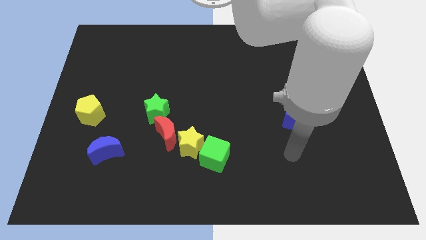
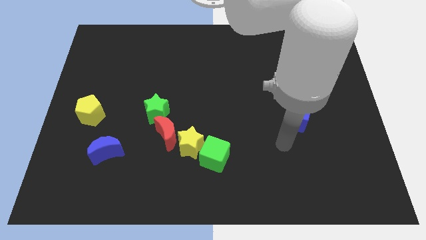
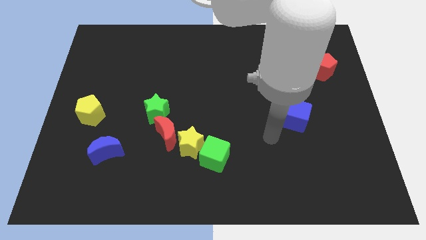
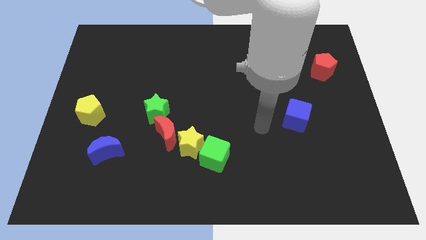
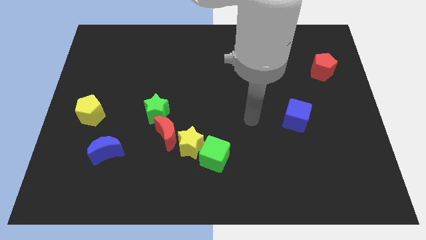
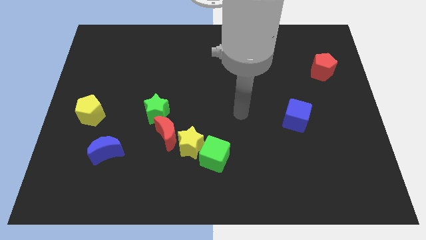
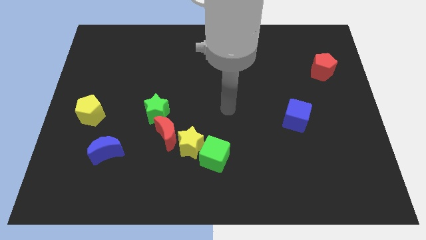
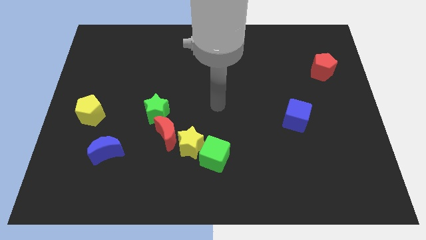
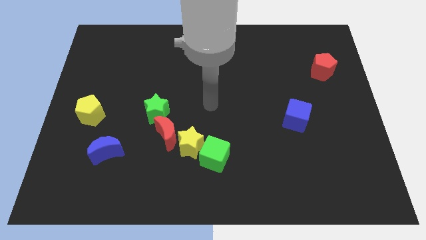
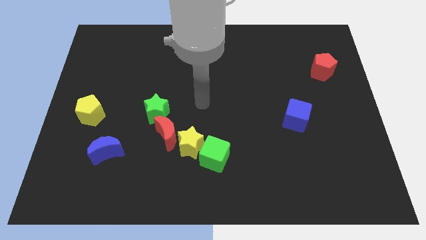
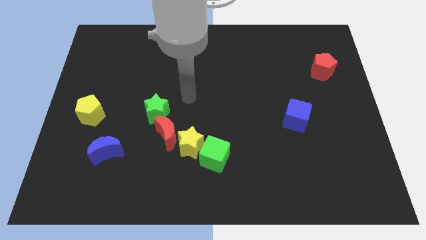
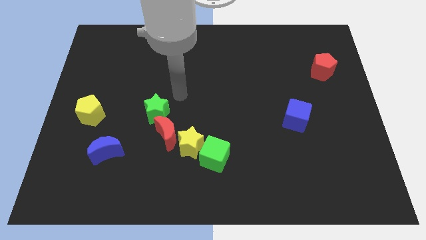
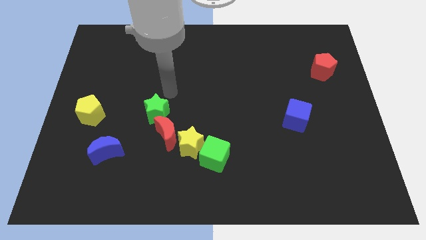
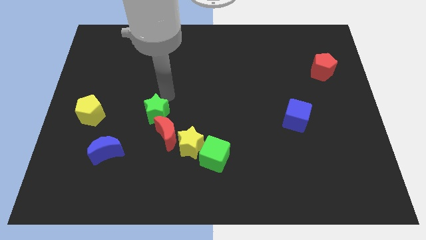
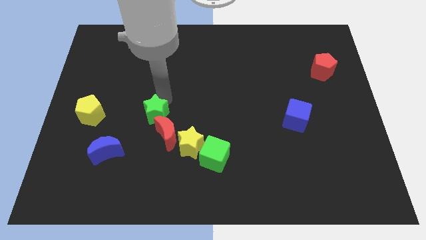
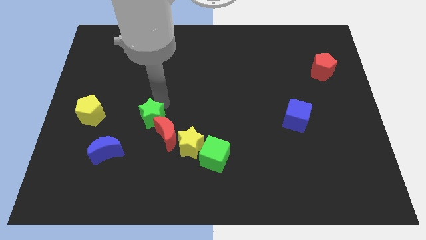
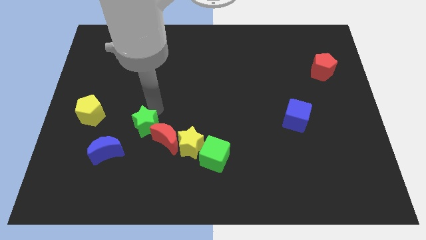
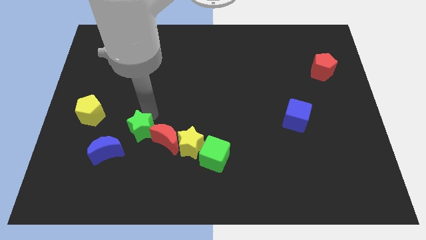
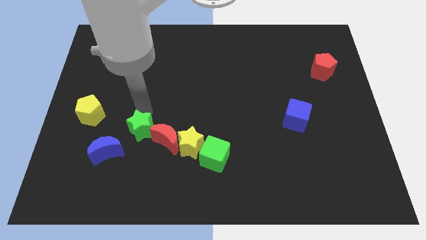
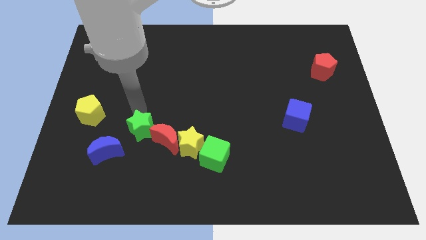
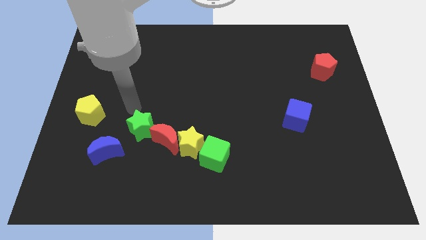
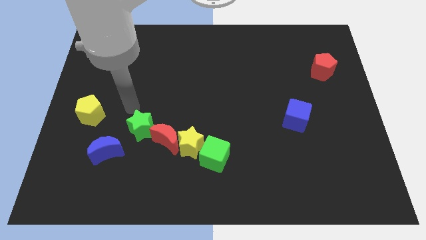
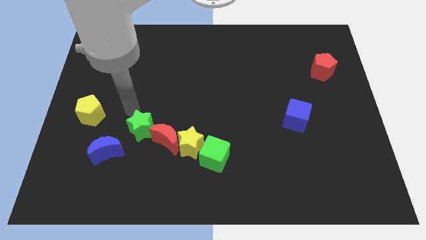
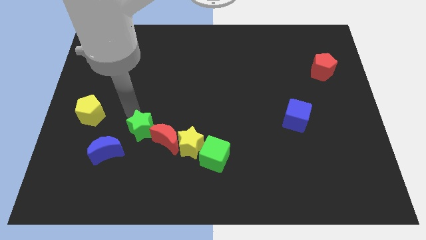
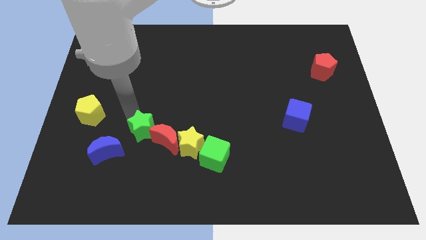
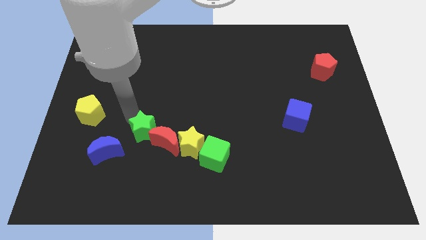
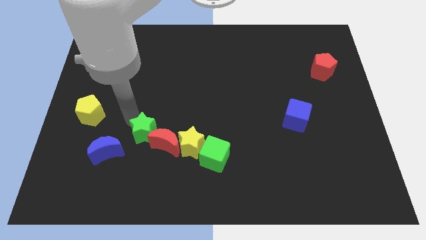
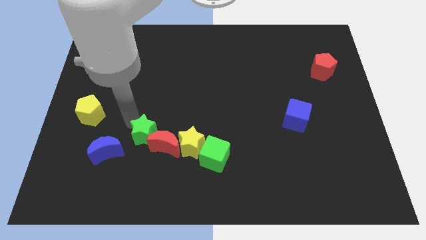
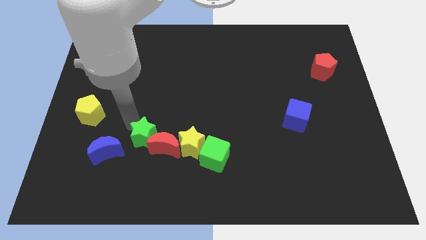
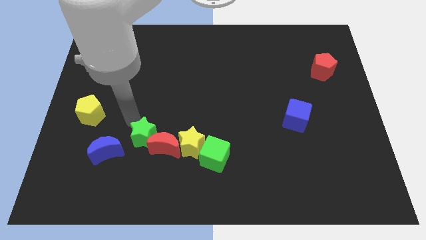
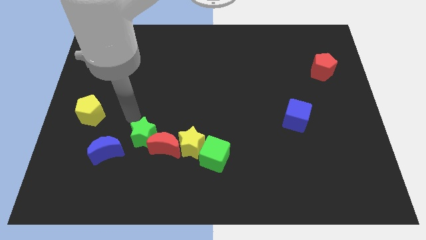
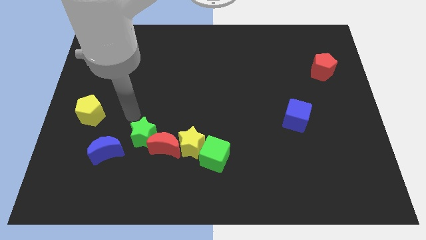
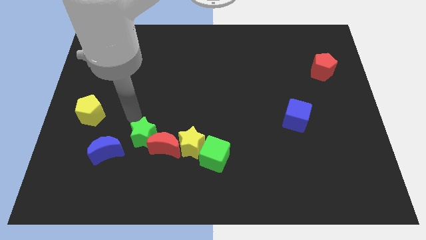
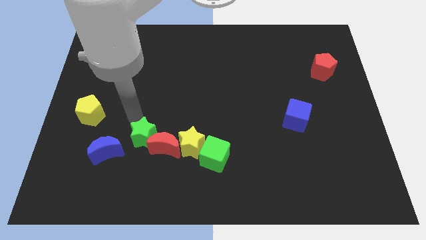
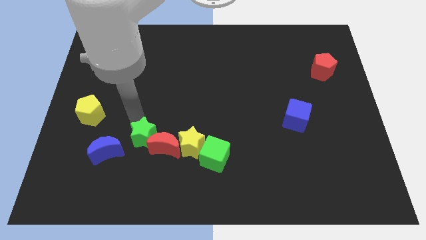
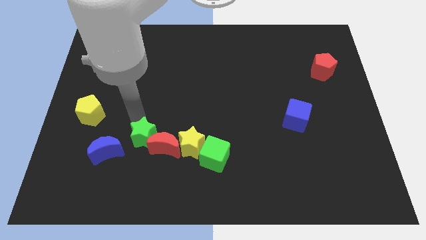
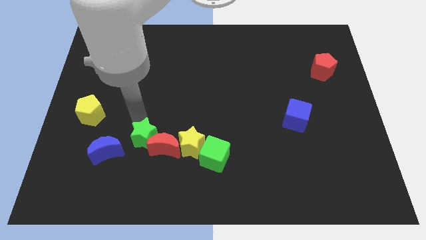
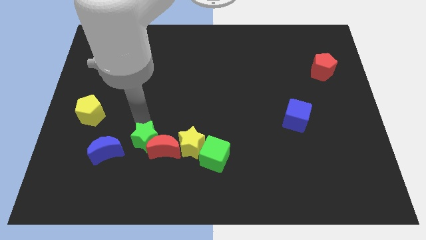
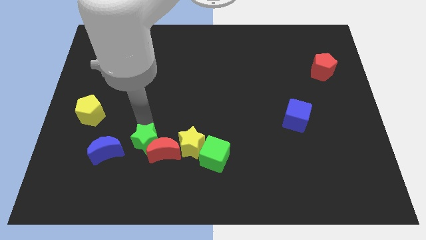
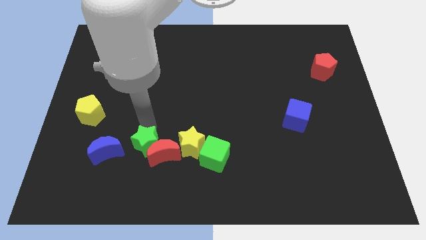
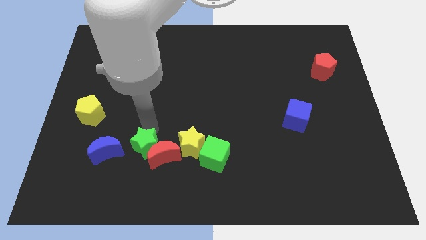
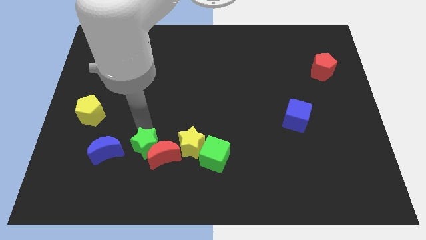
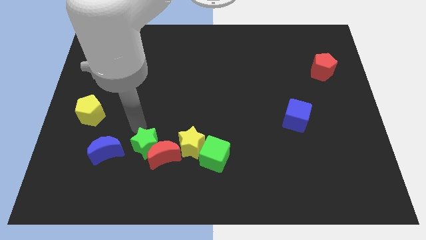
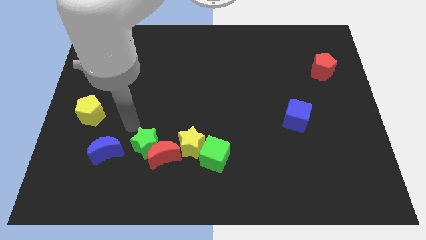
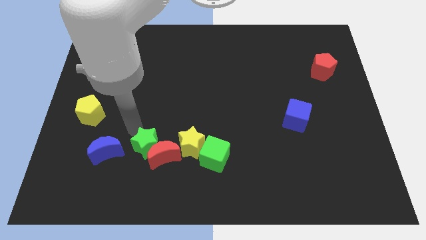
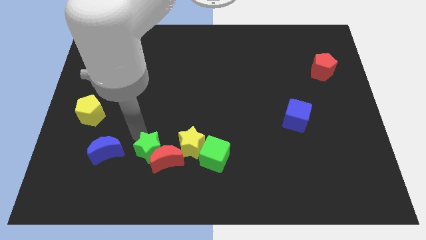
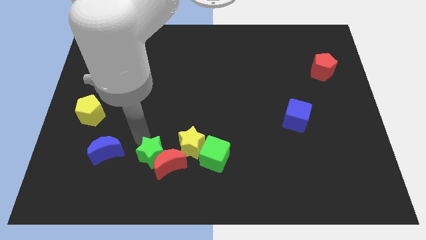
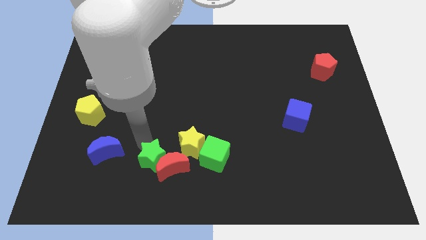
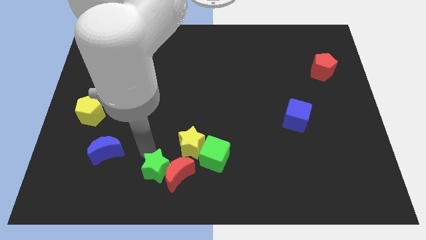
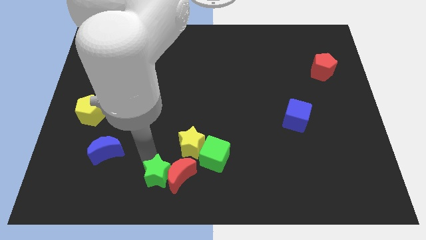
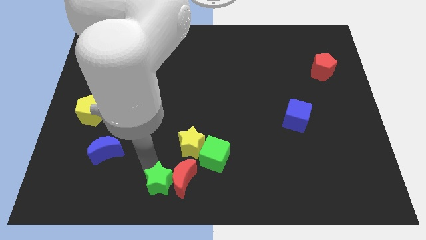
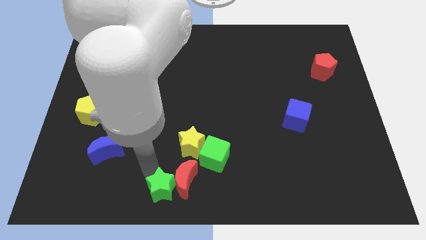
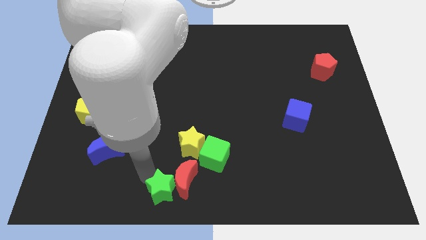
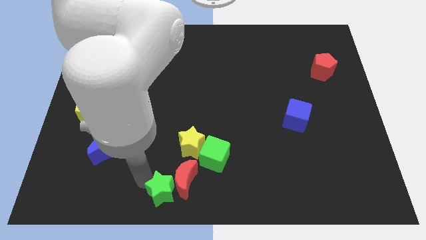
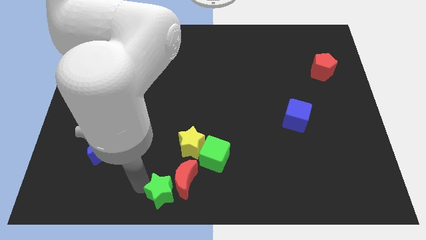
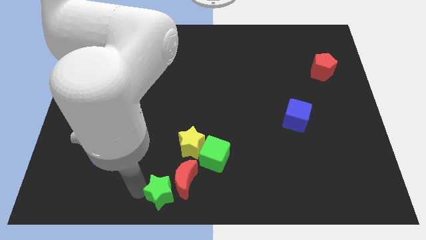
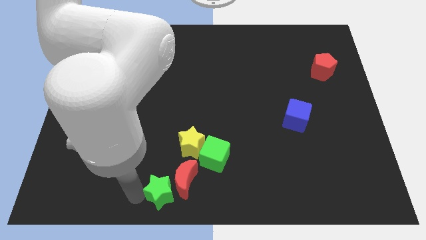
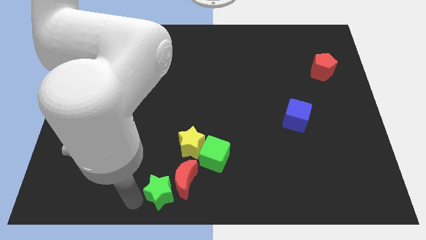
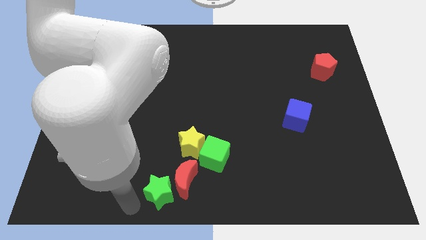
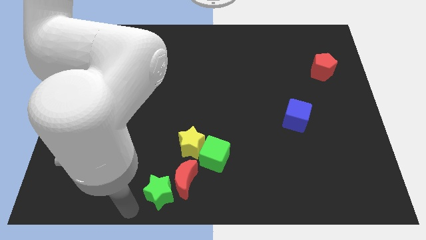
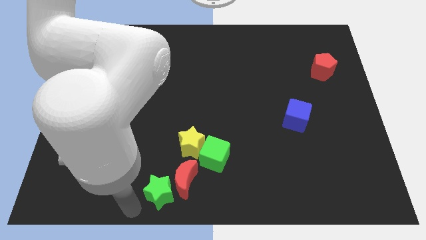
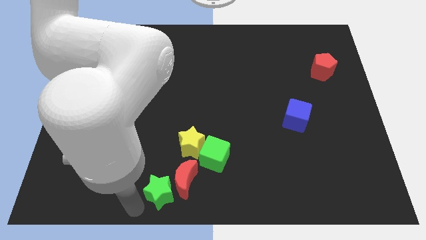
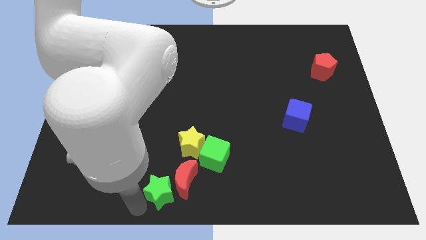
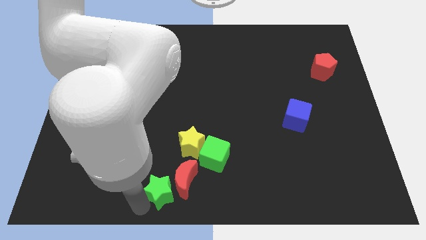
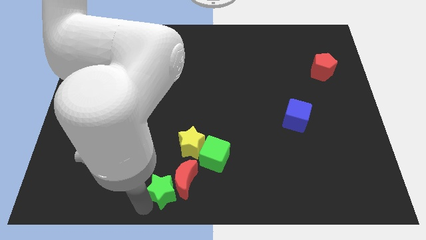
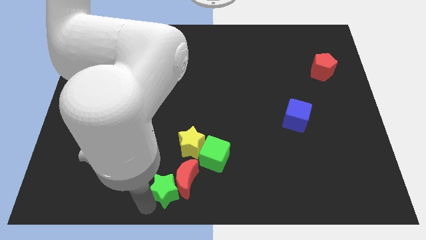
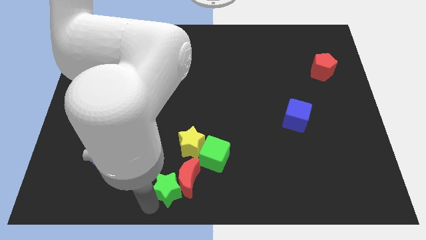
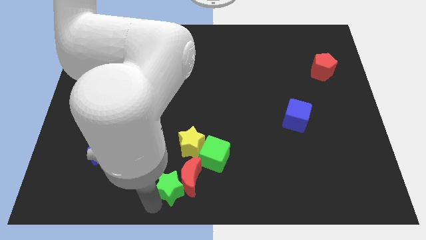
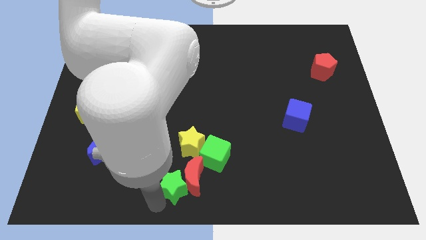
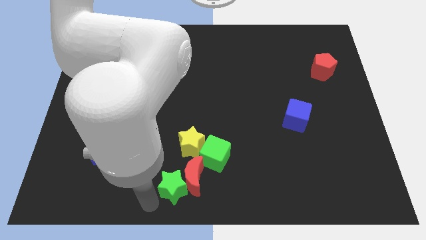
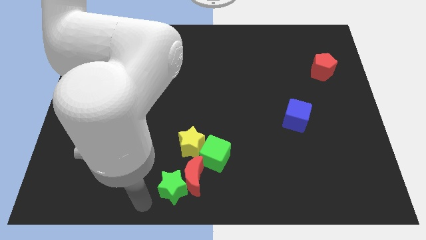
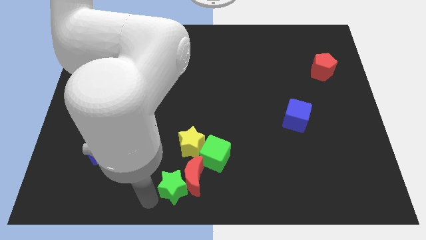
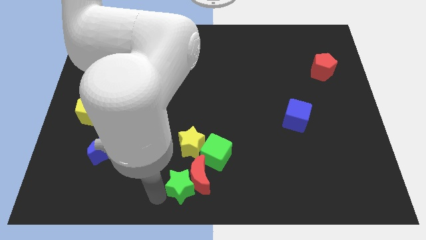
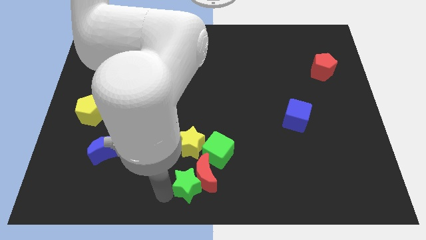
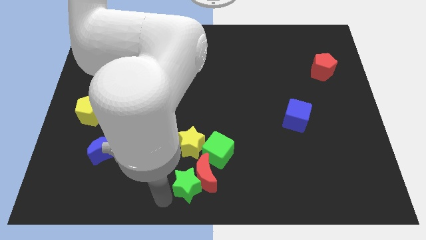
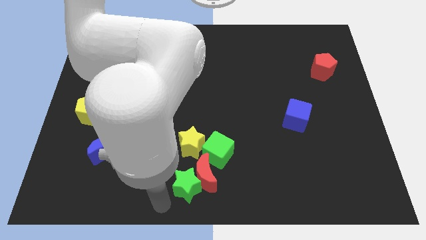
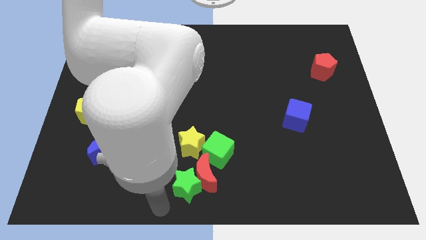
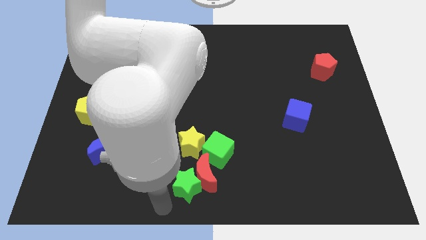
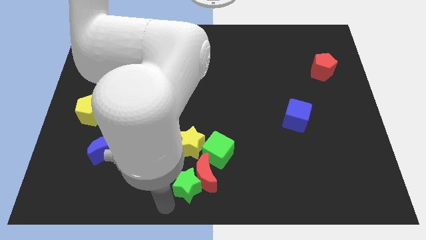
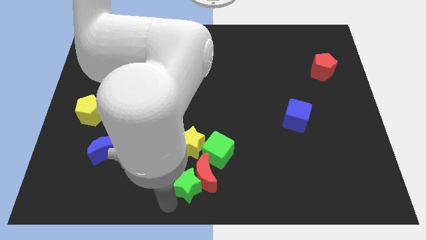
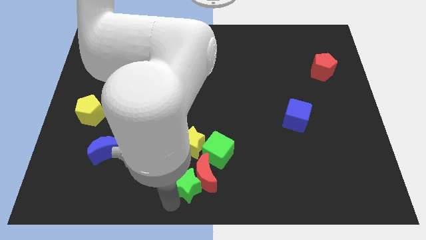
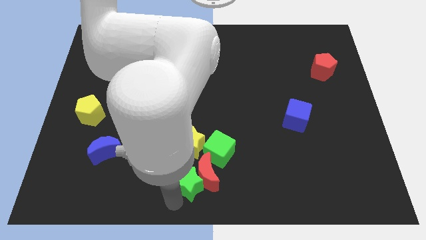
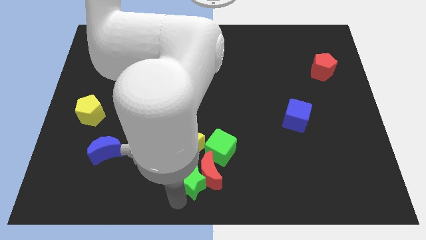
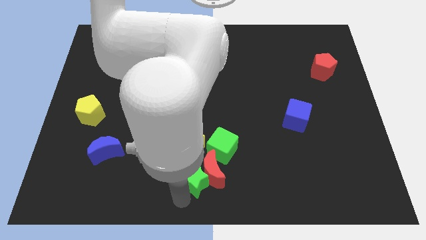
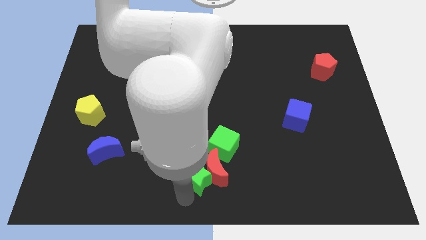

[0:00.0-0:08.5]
move the green star diagonally down and to the right of the yellow star
